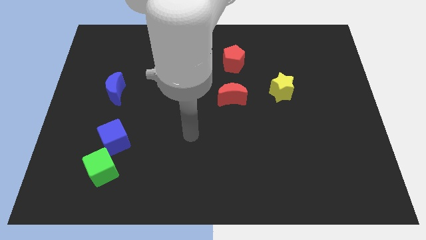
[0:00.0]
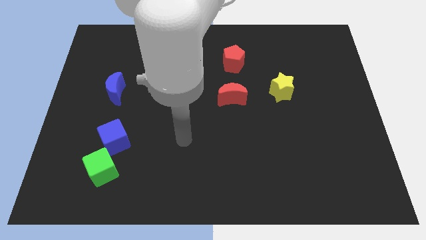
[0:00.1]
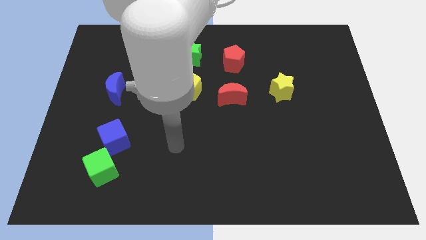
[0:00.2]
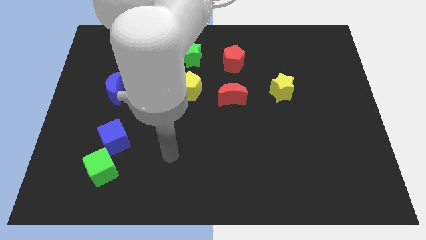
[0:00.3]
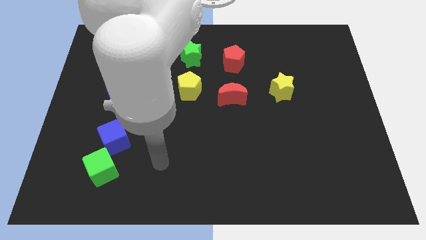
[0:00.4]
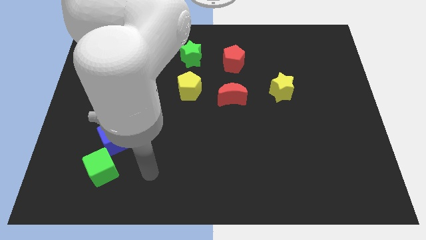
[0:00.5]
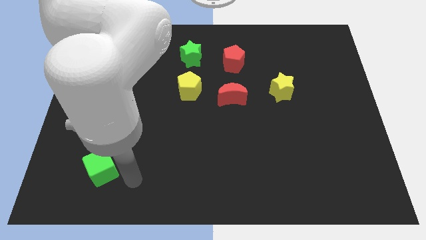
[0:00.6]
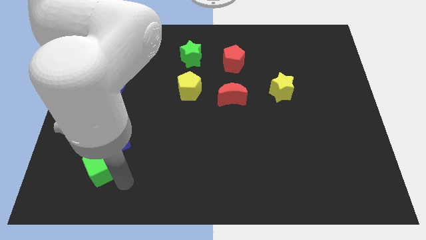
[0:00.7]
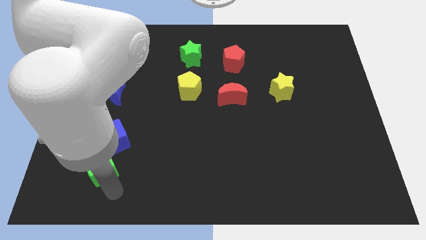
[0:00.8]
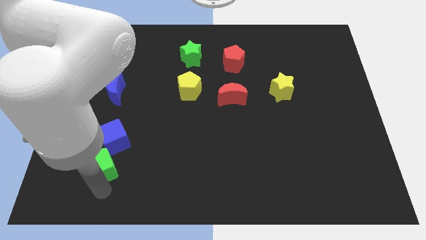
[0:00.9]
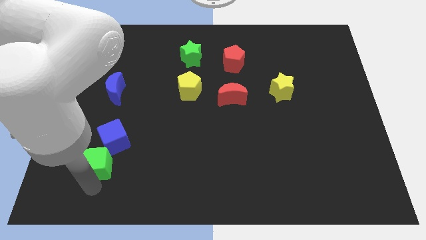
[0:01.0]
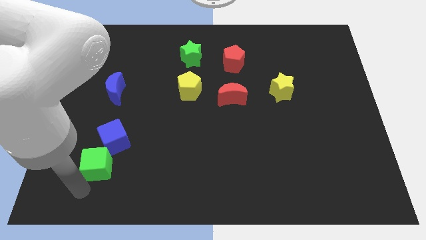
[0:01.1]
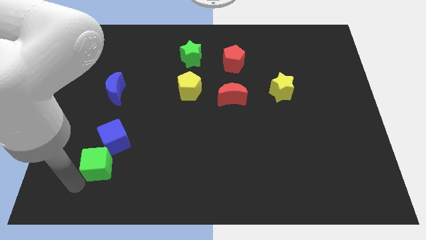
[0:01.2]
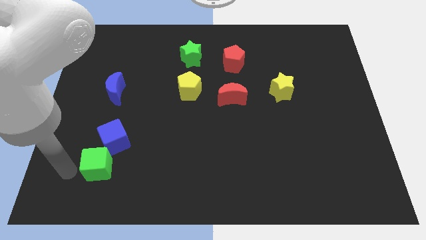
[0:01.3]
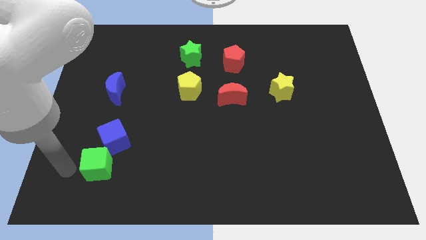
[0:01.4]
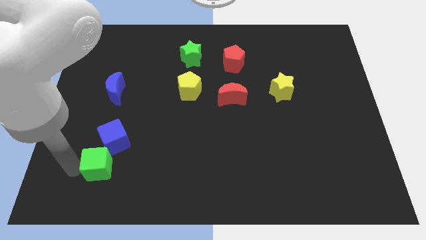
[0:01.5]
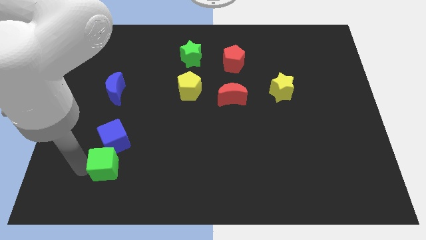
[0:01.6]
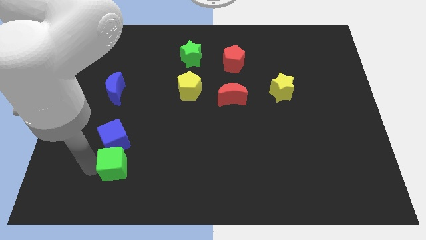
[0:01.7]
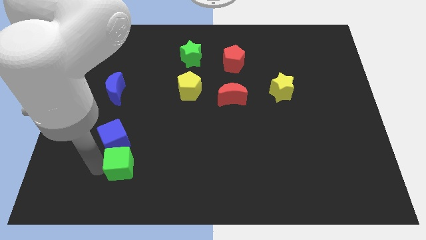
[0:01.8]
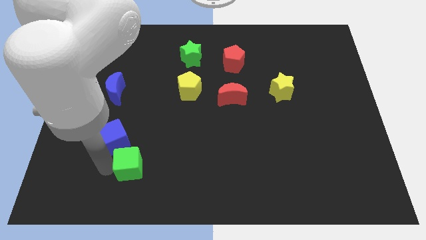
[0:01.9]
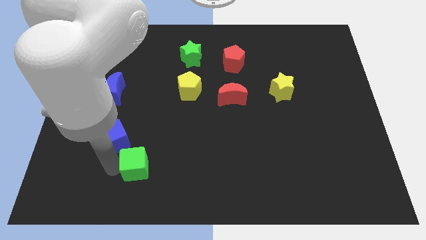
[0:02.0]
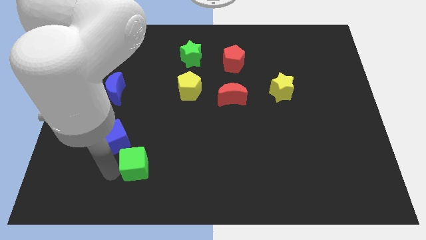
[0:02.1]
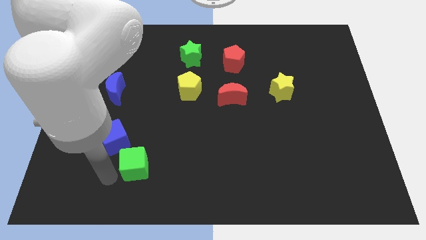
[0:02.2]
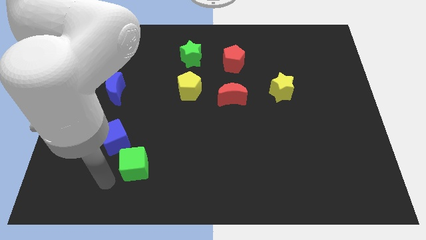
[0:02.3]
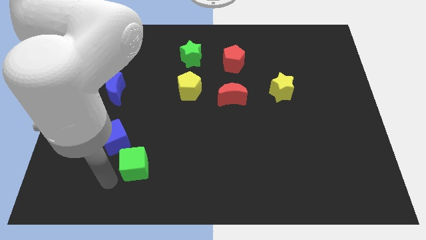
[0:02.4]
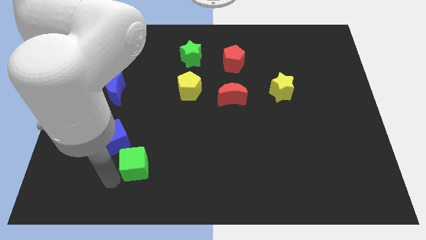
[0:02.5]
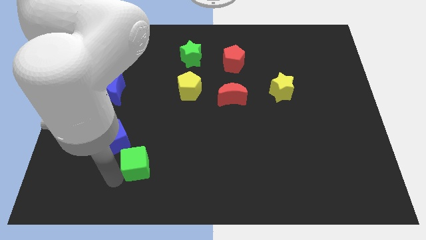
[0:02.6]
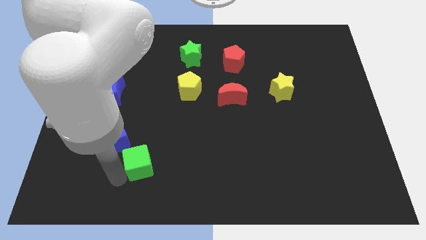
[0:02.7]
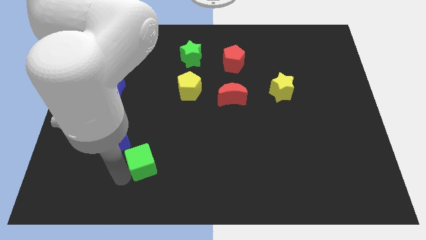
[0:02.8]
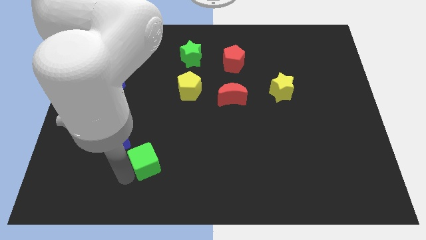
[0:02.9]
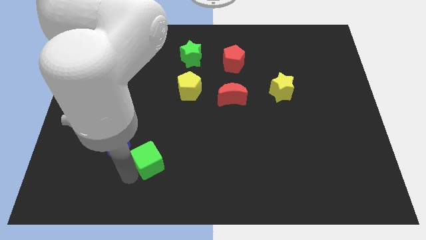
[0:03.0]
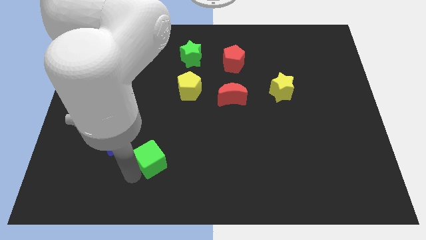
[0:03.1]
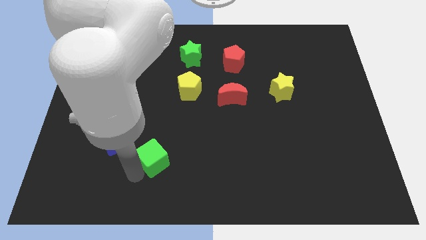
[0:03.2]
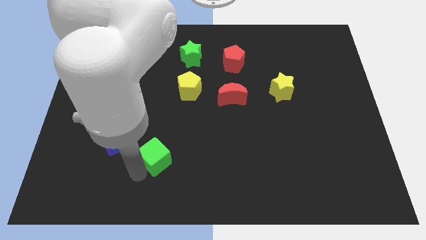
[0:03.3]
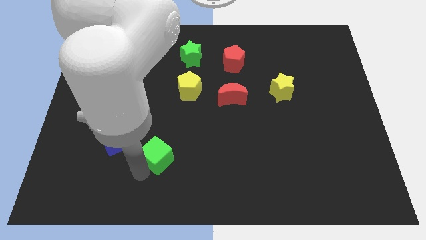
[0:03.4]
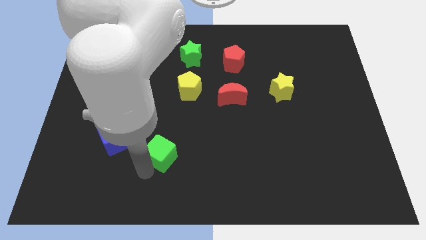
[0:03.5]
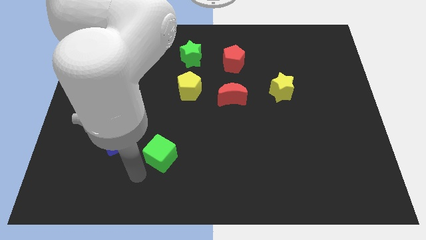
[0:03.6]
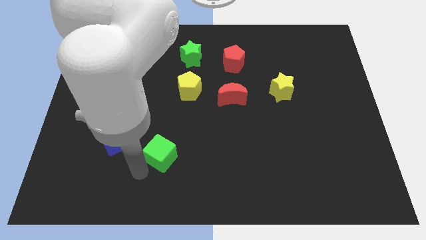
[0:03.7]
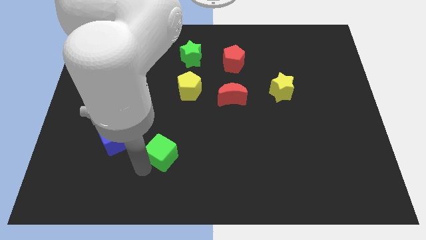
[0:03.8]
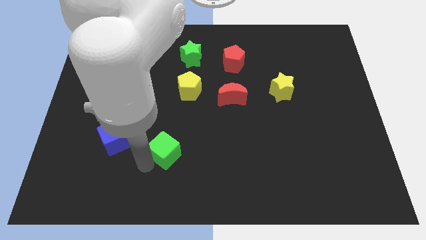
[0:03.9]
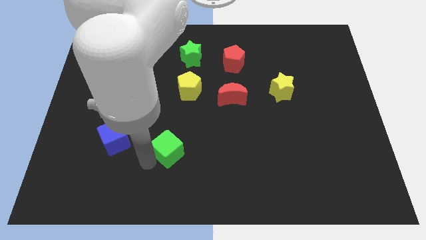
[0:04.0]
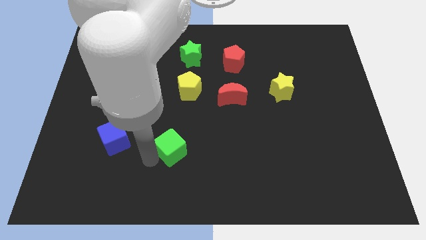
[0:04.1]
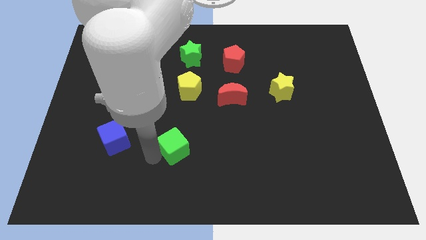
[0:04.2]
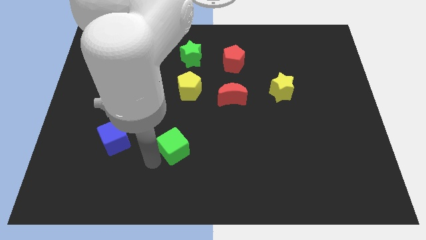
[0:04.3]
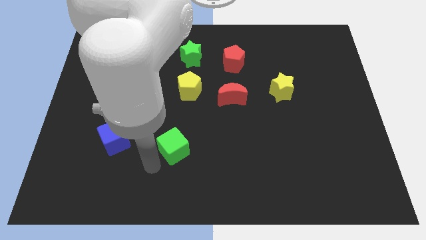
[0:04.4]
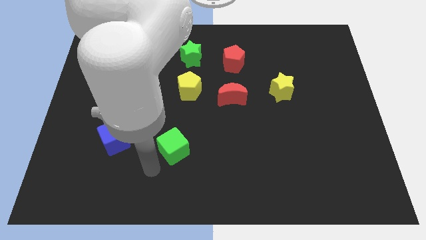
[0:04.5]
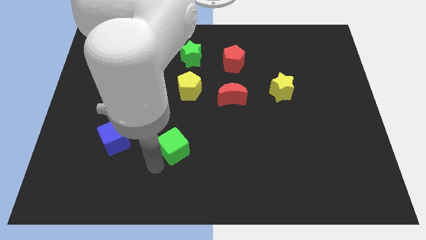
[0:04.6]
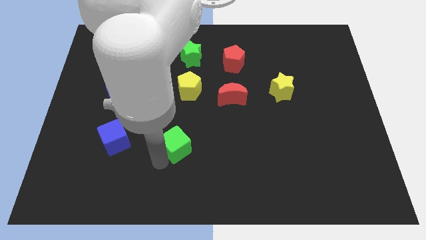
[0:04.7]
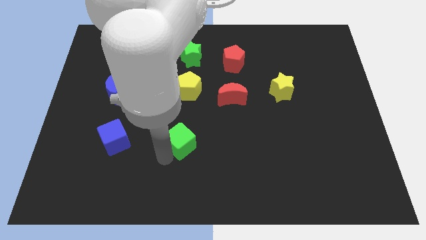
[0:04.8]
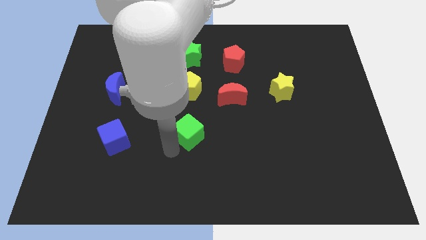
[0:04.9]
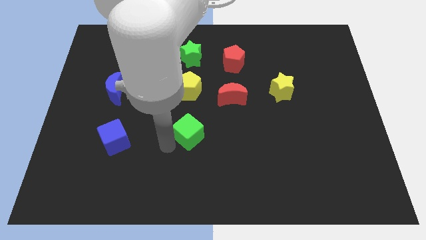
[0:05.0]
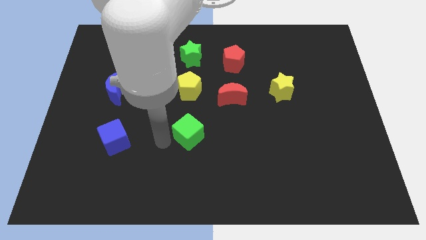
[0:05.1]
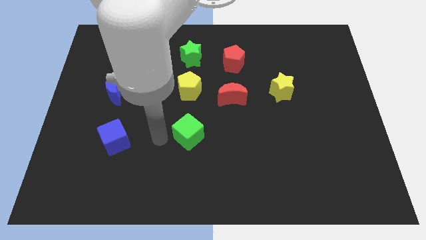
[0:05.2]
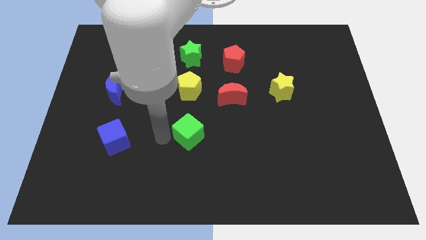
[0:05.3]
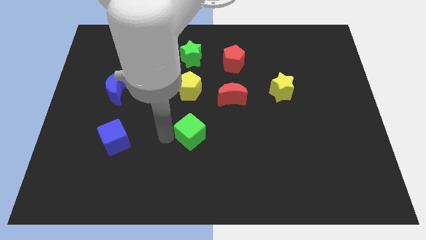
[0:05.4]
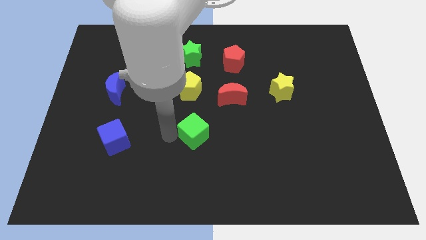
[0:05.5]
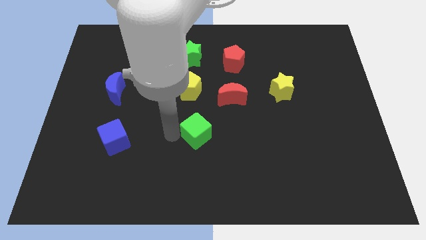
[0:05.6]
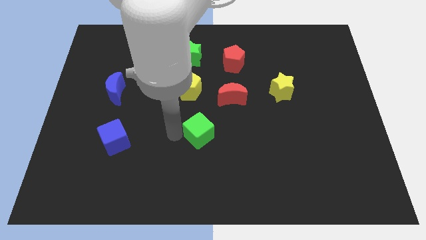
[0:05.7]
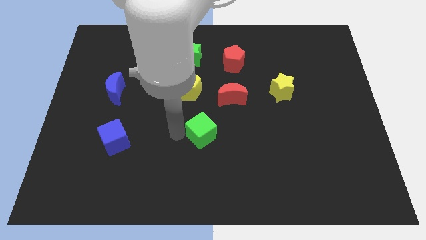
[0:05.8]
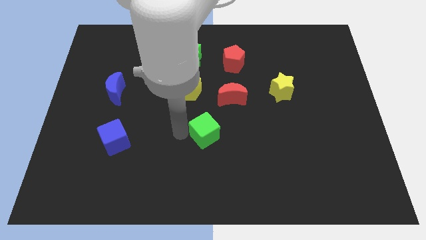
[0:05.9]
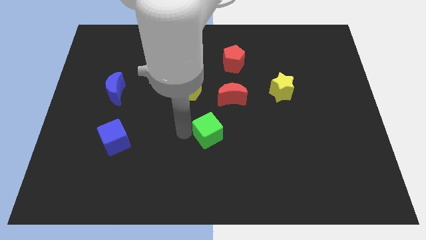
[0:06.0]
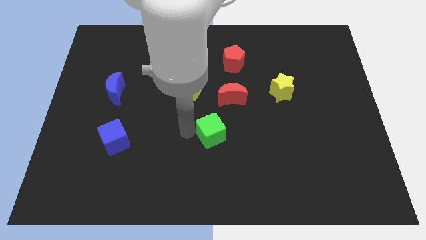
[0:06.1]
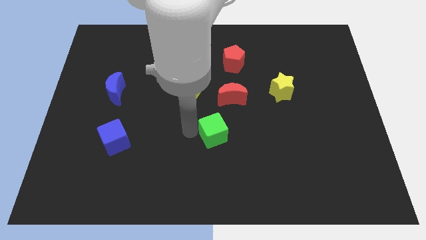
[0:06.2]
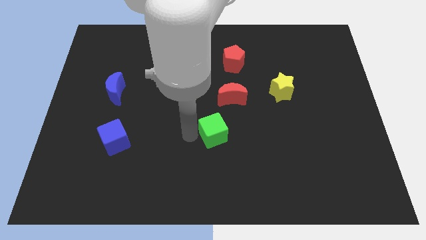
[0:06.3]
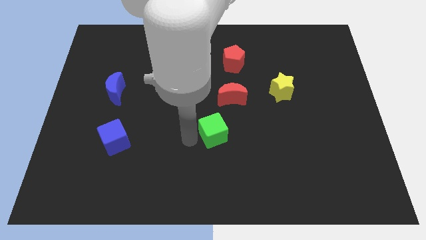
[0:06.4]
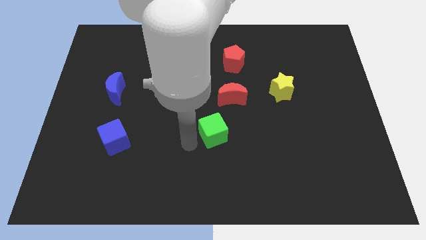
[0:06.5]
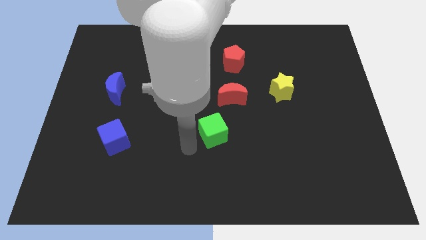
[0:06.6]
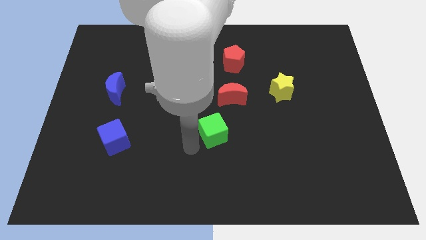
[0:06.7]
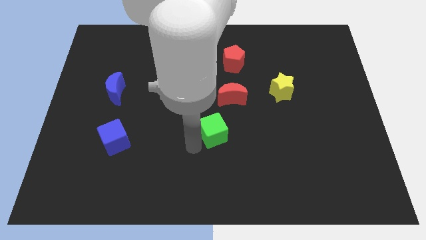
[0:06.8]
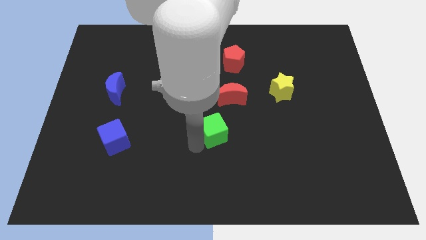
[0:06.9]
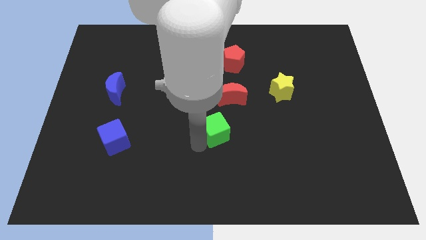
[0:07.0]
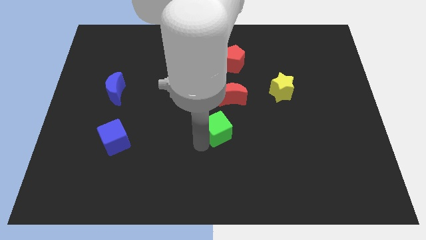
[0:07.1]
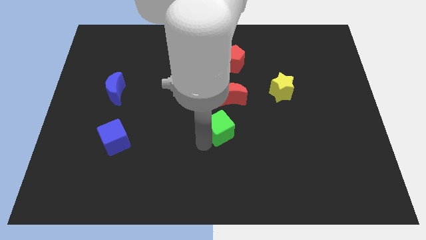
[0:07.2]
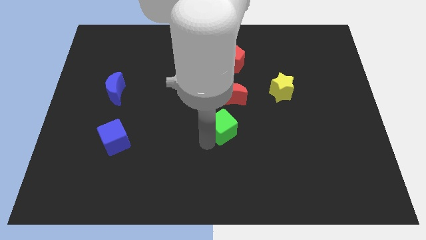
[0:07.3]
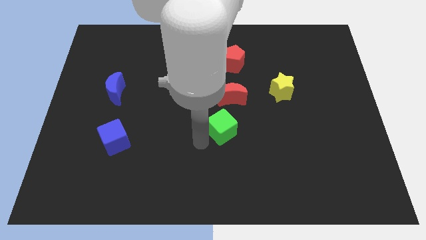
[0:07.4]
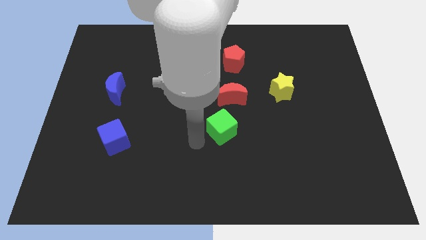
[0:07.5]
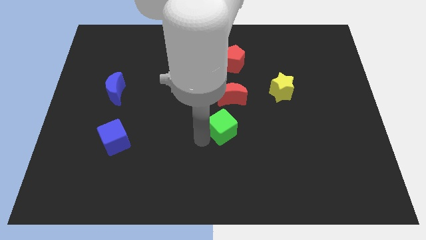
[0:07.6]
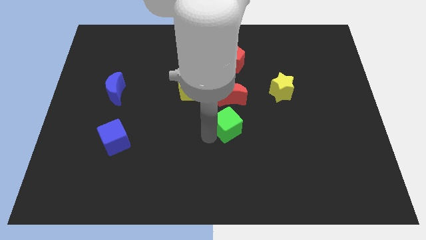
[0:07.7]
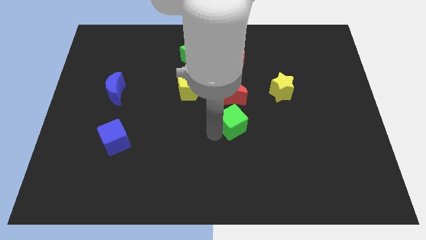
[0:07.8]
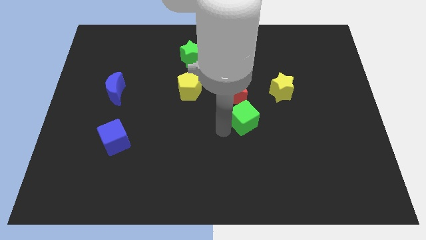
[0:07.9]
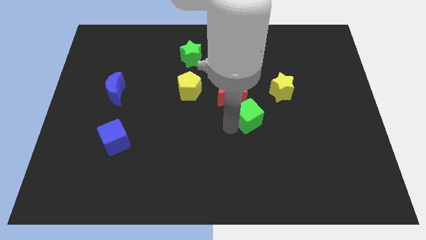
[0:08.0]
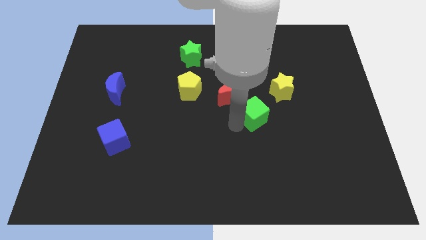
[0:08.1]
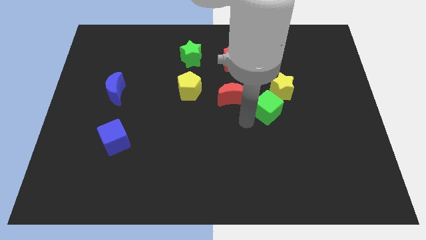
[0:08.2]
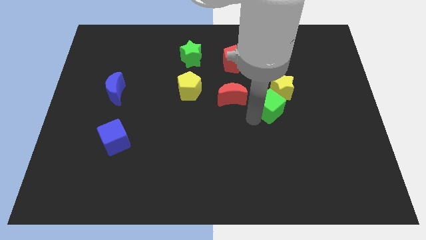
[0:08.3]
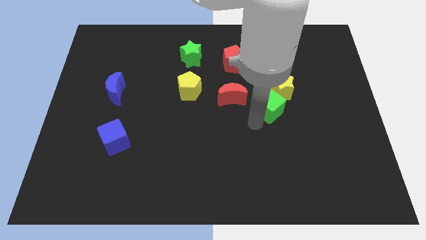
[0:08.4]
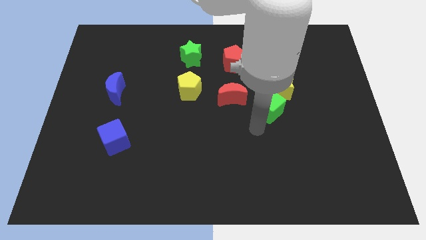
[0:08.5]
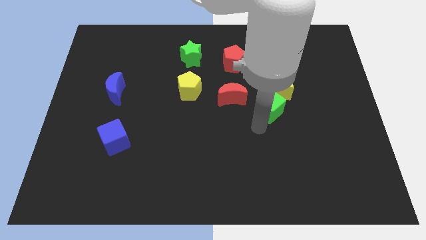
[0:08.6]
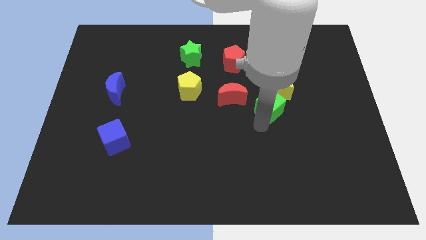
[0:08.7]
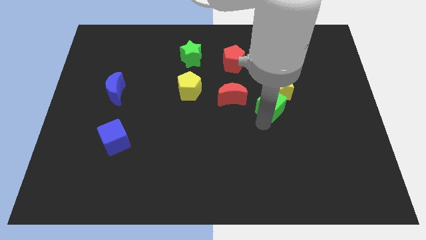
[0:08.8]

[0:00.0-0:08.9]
move the green cube next to the yellow star
